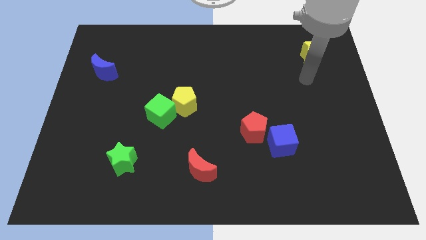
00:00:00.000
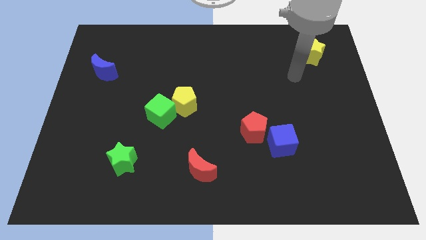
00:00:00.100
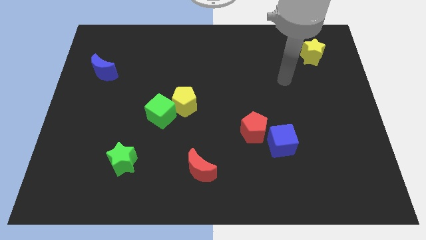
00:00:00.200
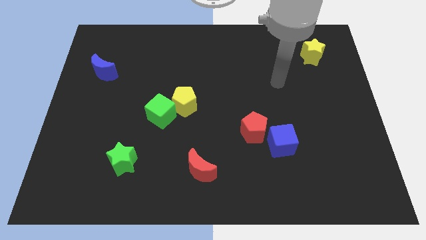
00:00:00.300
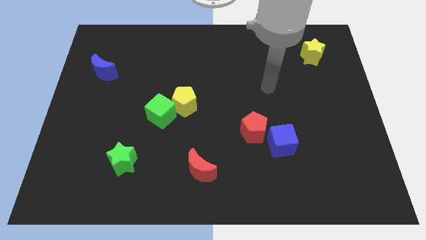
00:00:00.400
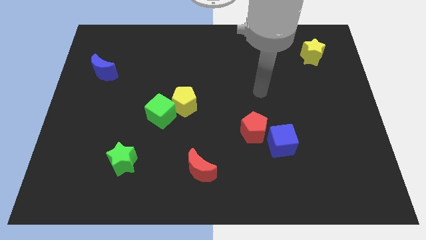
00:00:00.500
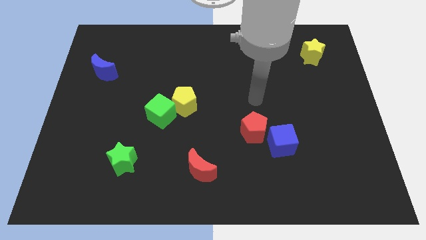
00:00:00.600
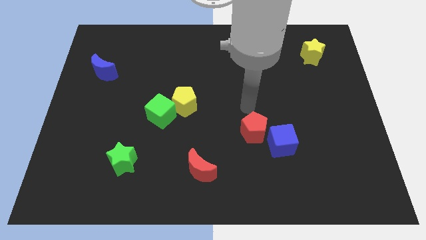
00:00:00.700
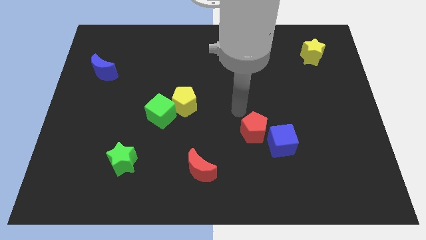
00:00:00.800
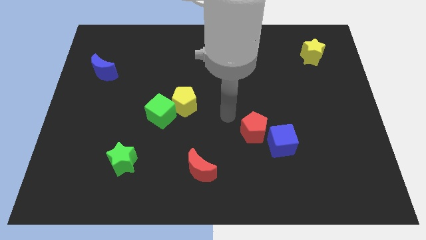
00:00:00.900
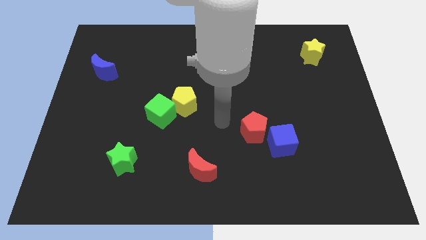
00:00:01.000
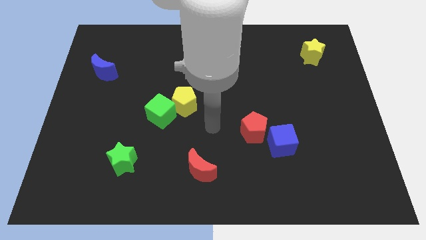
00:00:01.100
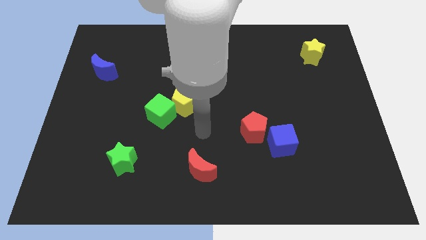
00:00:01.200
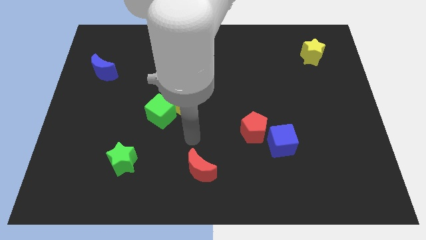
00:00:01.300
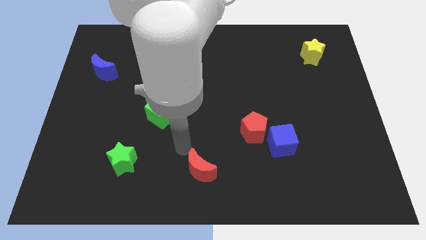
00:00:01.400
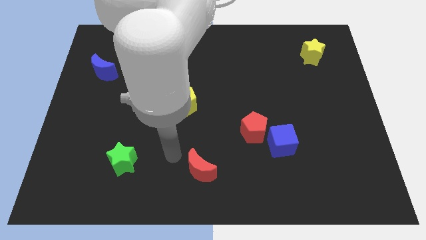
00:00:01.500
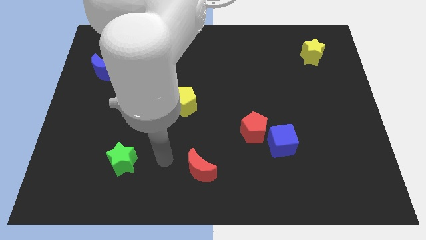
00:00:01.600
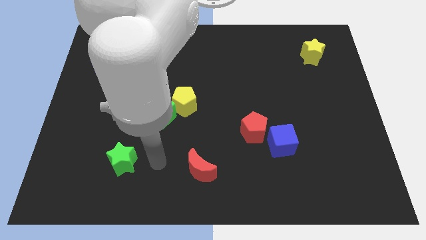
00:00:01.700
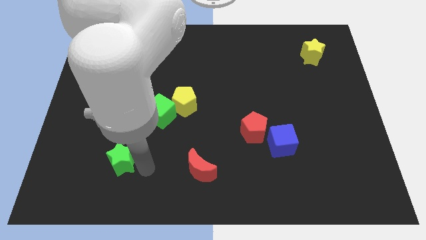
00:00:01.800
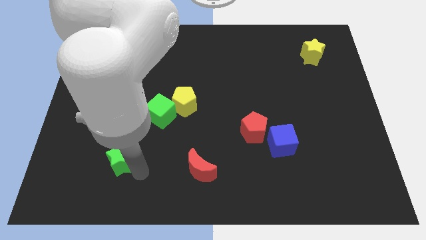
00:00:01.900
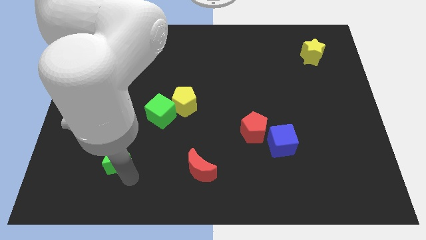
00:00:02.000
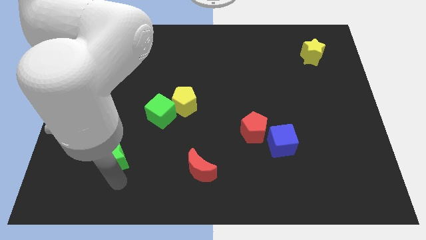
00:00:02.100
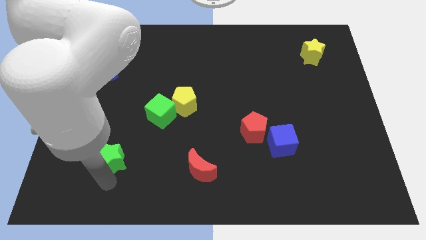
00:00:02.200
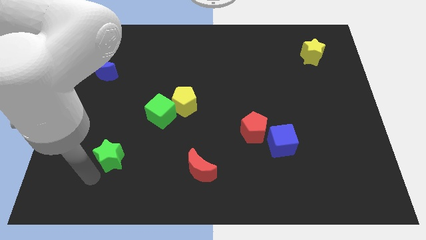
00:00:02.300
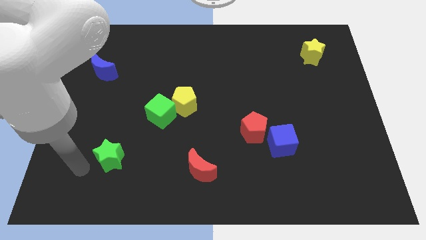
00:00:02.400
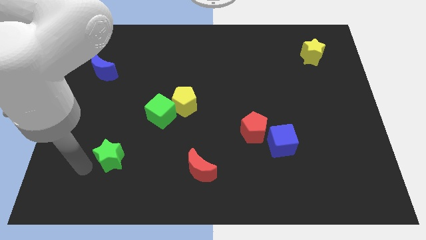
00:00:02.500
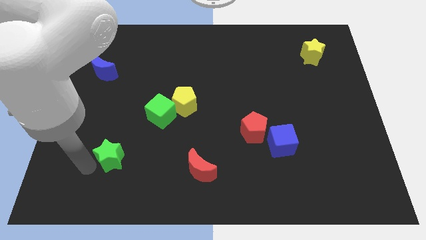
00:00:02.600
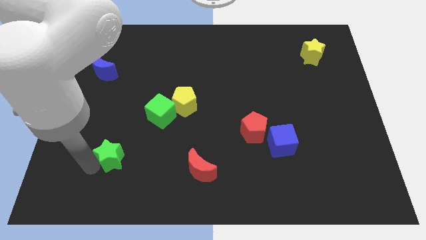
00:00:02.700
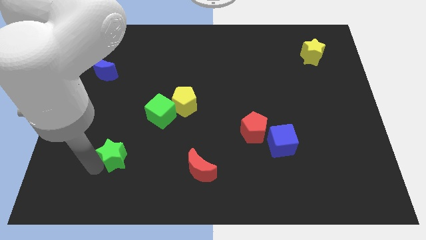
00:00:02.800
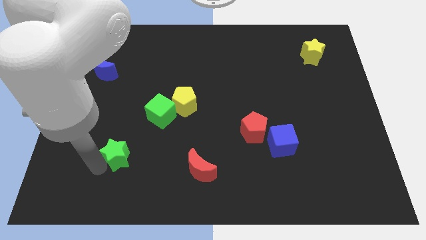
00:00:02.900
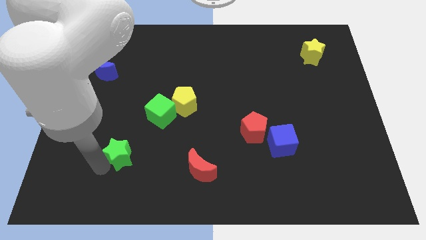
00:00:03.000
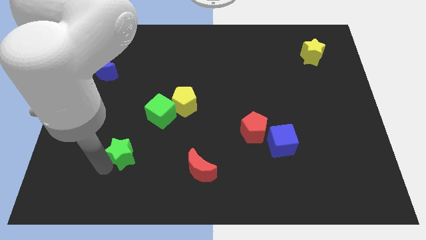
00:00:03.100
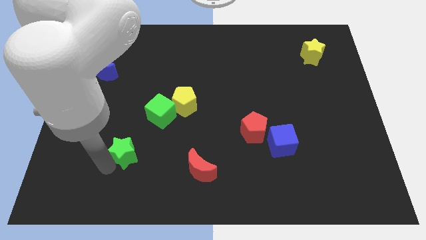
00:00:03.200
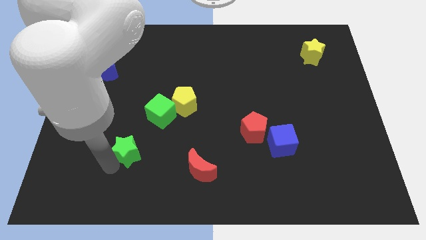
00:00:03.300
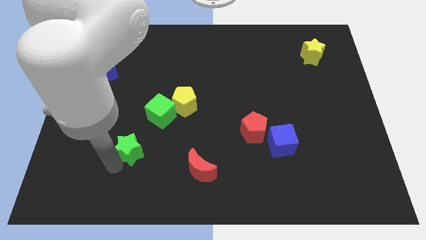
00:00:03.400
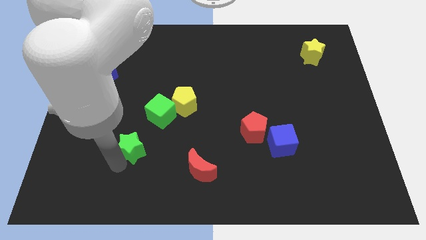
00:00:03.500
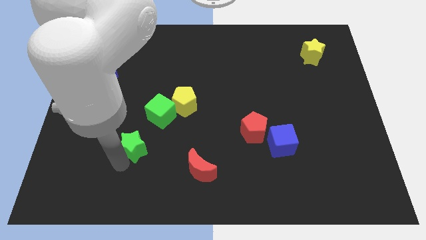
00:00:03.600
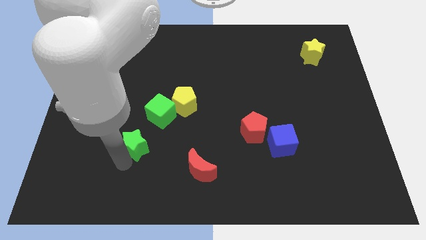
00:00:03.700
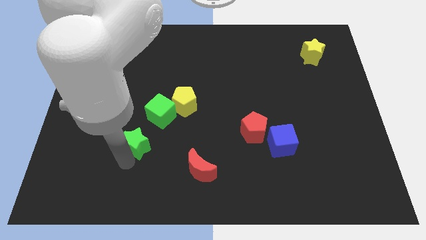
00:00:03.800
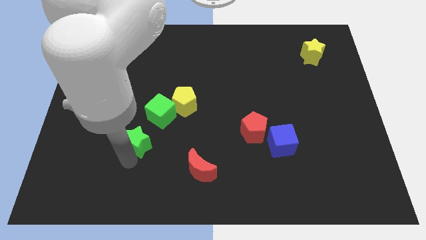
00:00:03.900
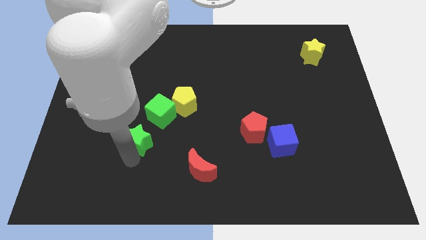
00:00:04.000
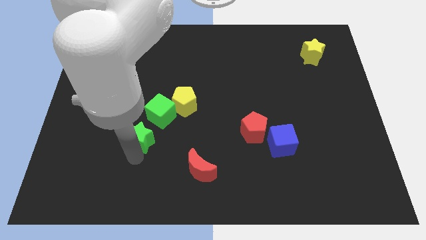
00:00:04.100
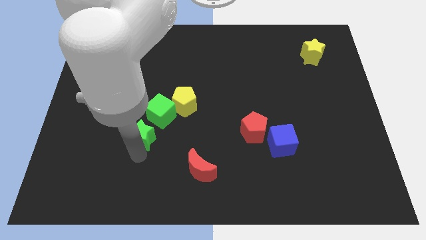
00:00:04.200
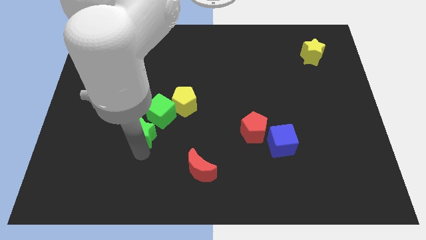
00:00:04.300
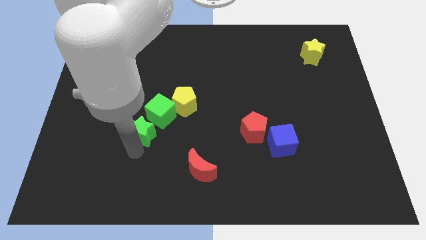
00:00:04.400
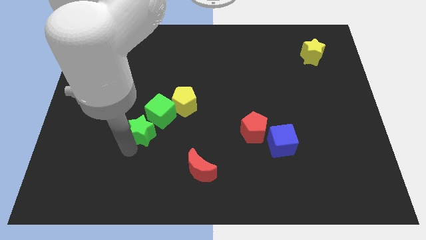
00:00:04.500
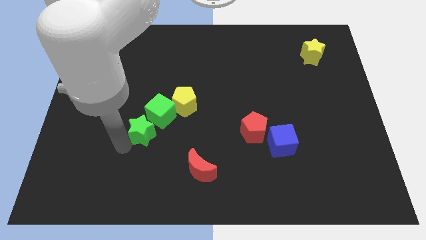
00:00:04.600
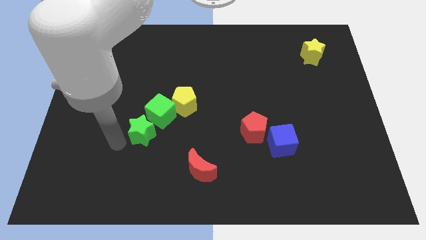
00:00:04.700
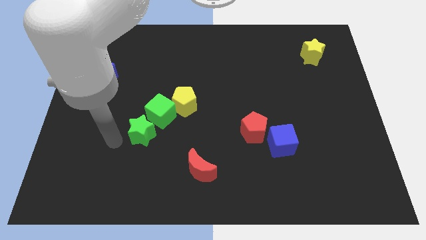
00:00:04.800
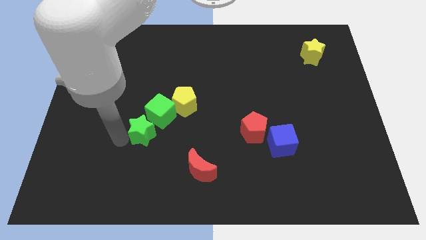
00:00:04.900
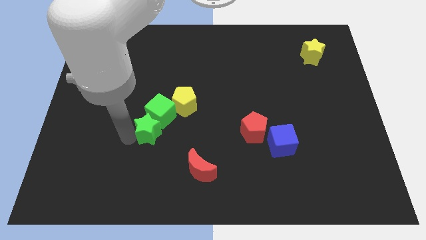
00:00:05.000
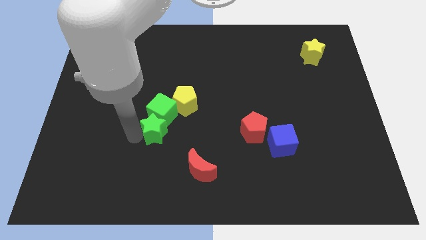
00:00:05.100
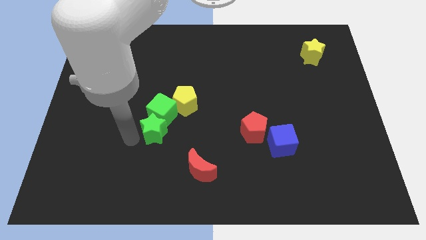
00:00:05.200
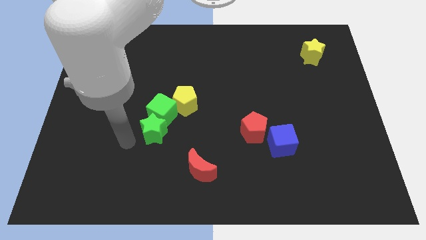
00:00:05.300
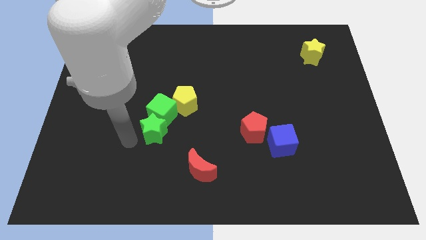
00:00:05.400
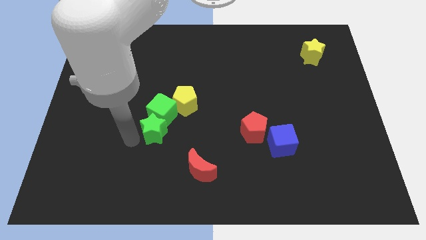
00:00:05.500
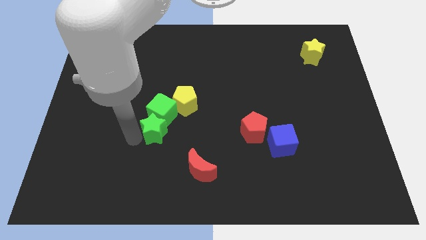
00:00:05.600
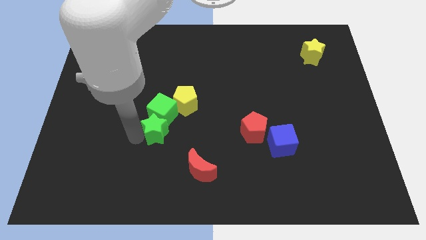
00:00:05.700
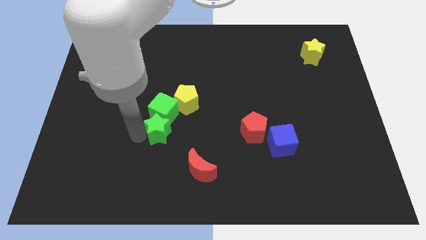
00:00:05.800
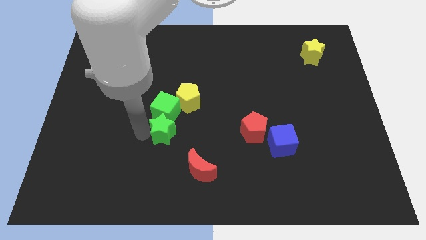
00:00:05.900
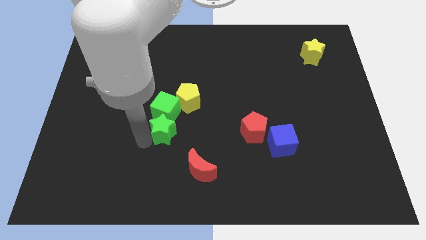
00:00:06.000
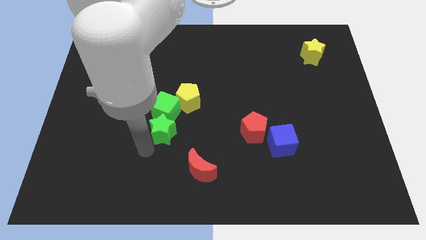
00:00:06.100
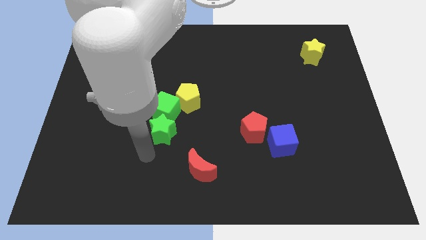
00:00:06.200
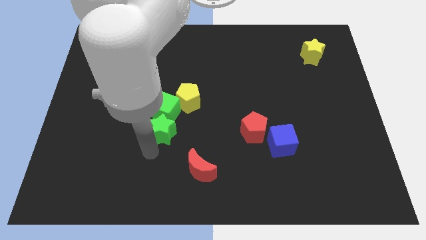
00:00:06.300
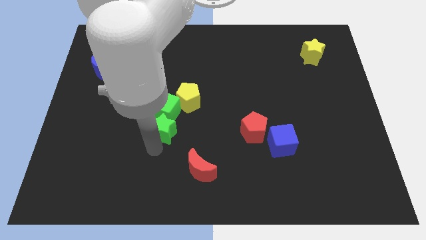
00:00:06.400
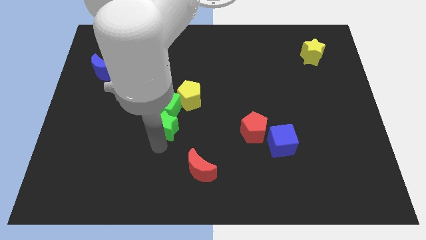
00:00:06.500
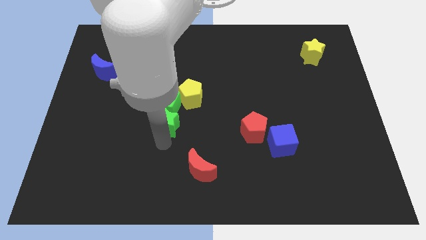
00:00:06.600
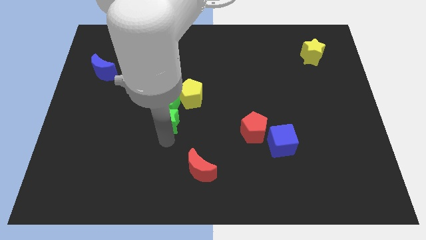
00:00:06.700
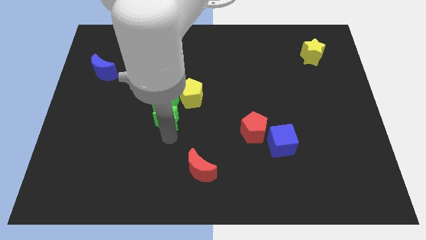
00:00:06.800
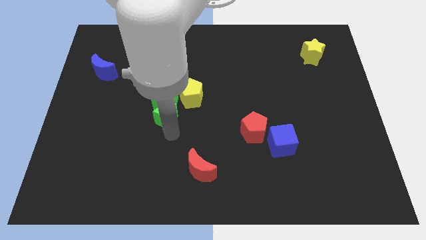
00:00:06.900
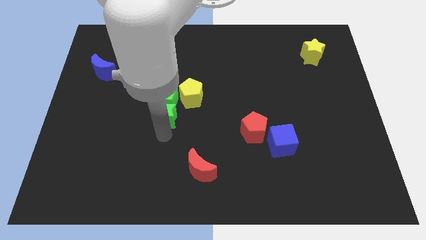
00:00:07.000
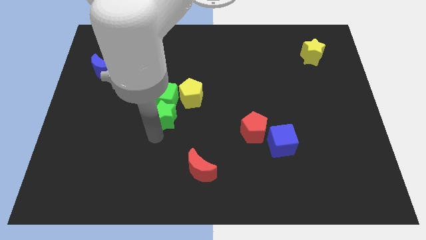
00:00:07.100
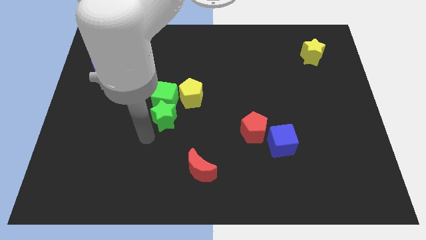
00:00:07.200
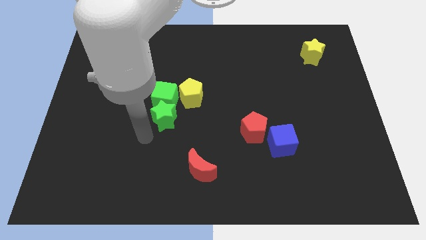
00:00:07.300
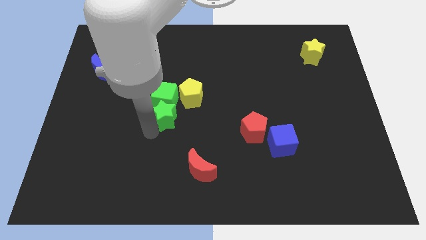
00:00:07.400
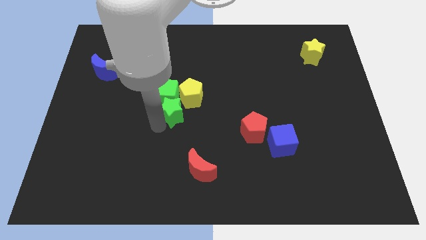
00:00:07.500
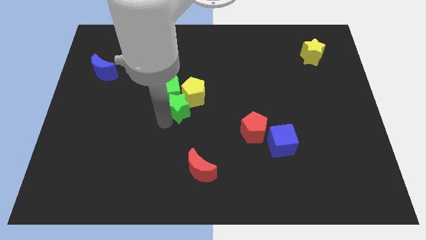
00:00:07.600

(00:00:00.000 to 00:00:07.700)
push the green star to the yellow pentagon
